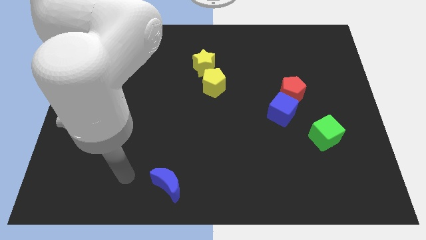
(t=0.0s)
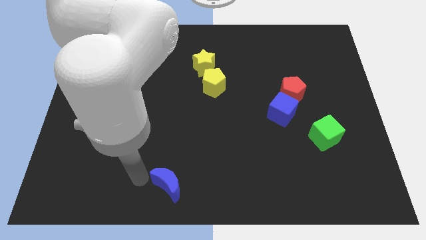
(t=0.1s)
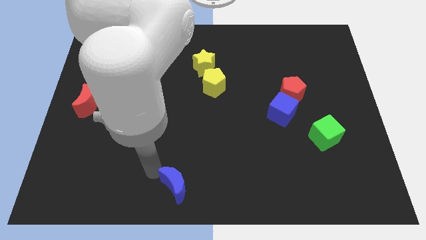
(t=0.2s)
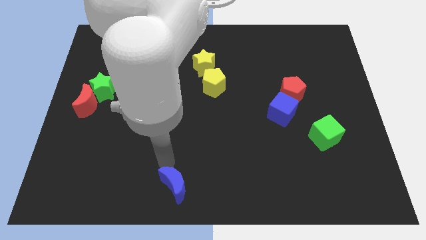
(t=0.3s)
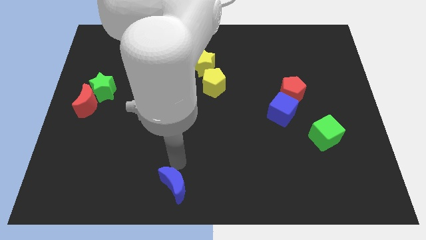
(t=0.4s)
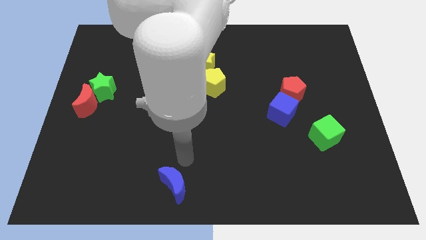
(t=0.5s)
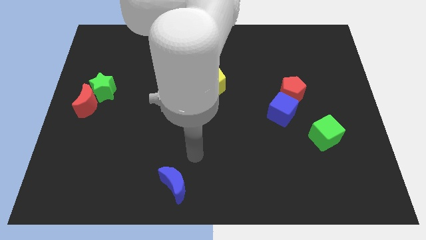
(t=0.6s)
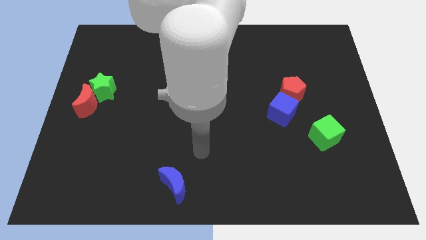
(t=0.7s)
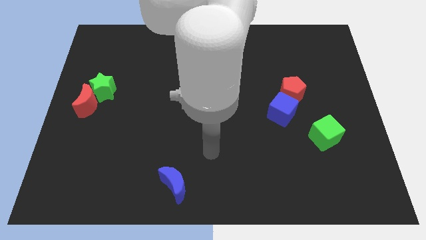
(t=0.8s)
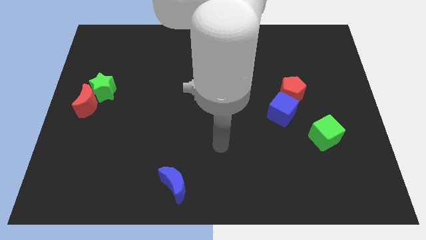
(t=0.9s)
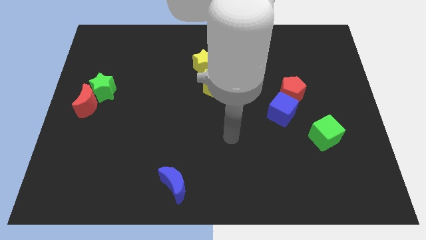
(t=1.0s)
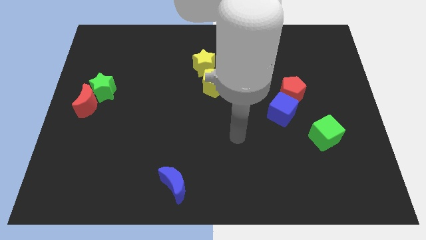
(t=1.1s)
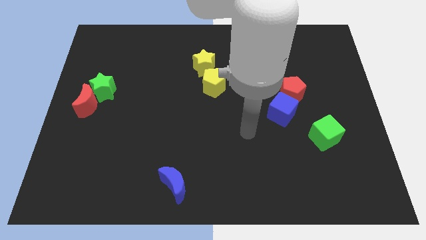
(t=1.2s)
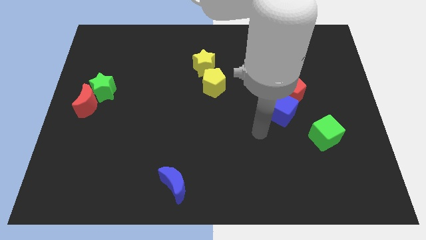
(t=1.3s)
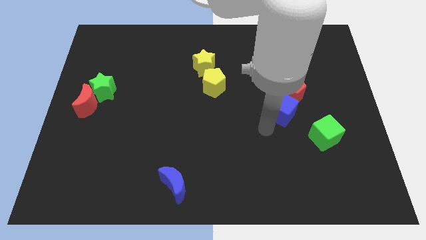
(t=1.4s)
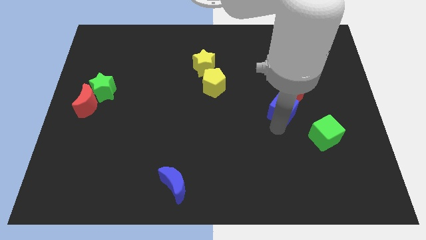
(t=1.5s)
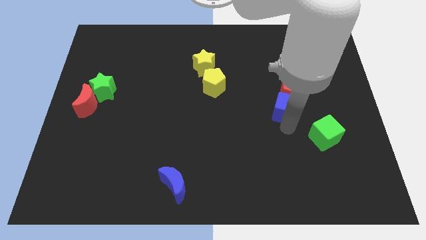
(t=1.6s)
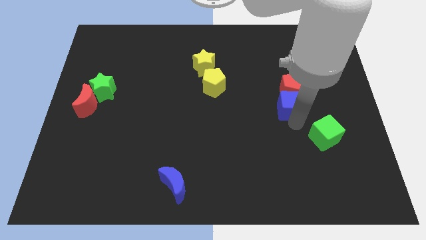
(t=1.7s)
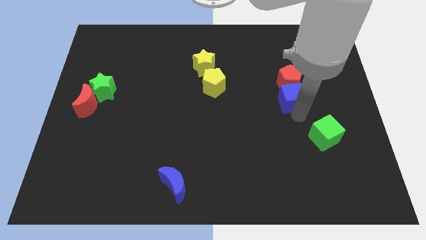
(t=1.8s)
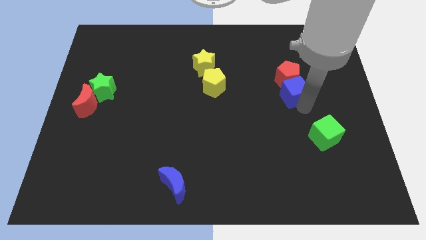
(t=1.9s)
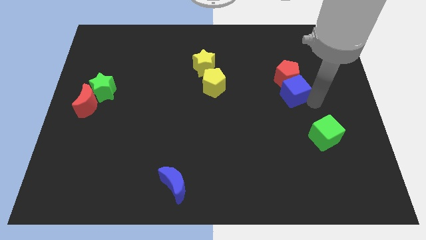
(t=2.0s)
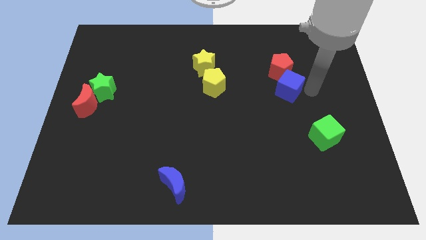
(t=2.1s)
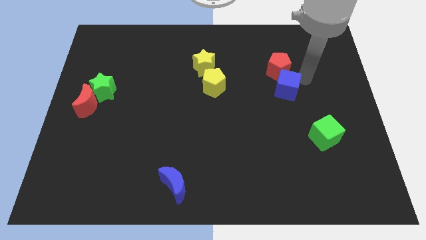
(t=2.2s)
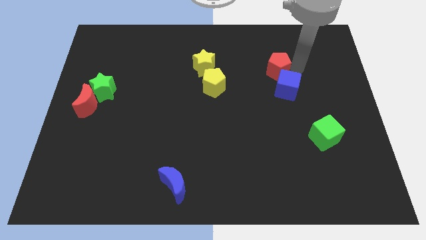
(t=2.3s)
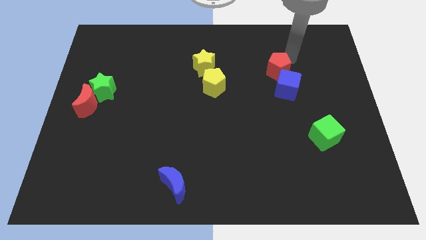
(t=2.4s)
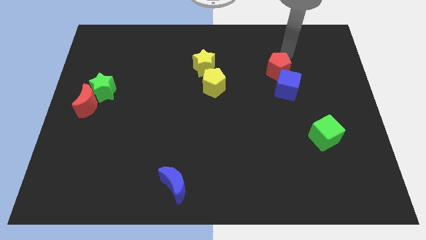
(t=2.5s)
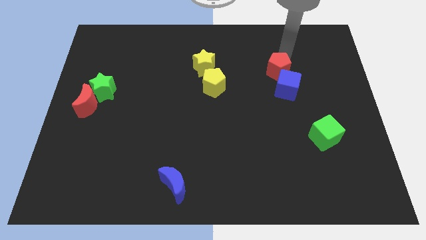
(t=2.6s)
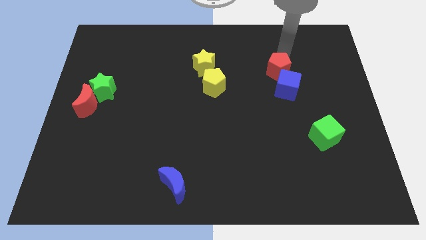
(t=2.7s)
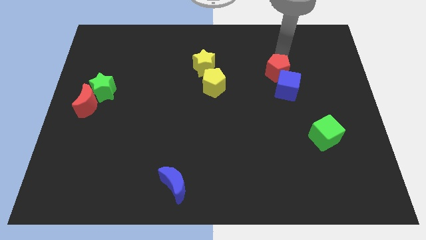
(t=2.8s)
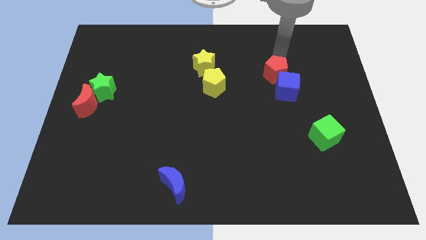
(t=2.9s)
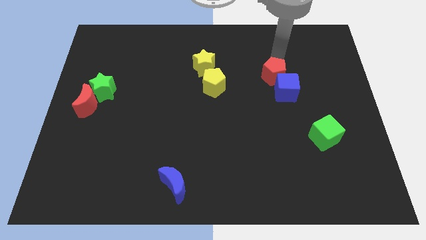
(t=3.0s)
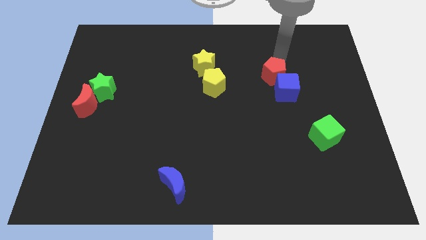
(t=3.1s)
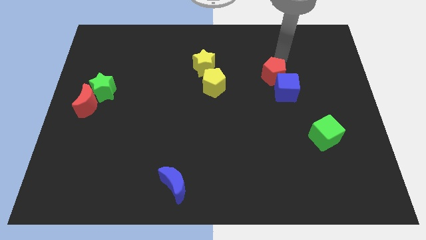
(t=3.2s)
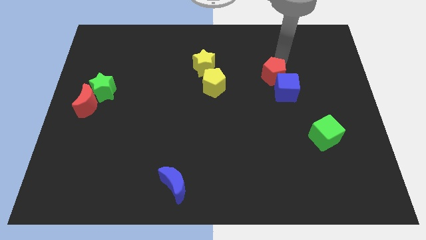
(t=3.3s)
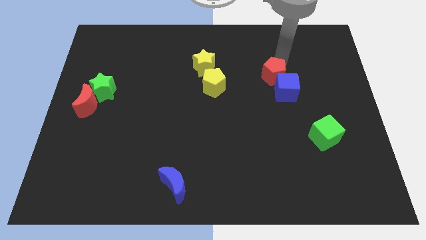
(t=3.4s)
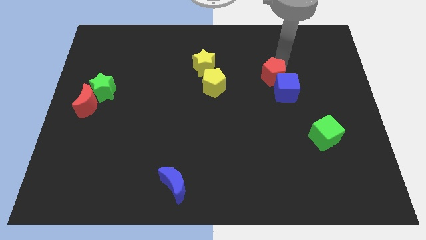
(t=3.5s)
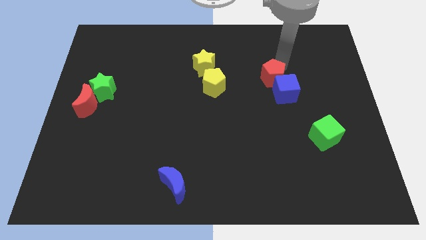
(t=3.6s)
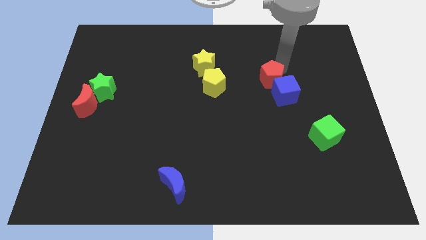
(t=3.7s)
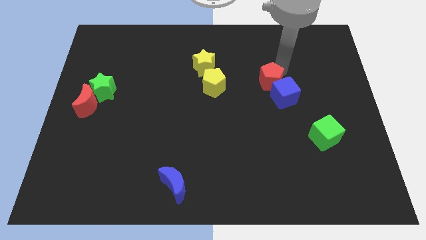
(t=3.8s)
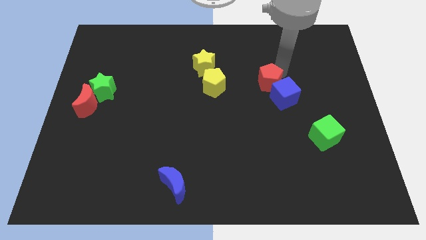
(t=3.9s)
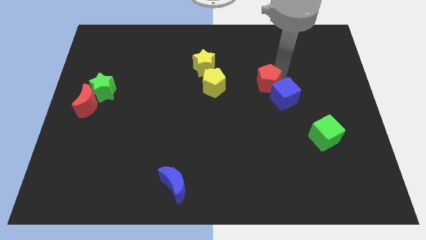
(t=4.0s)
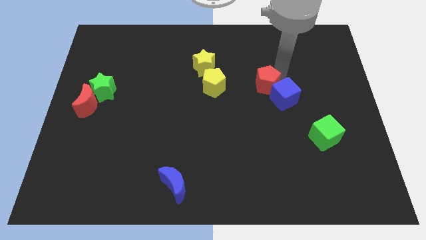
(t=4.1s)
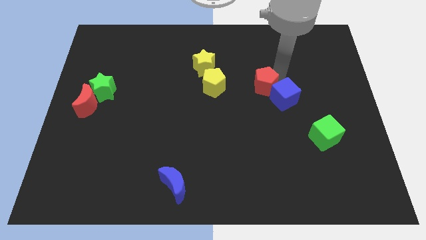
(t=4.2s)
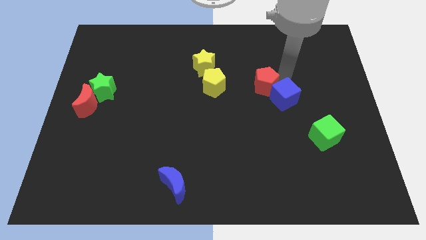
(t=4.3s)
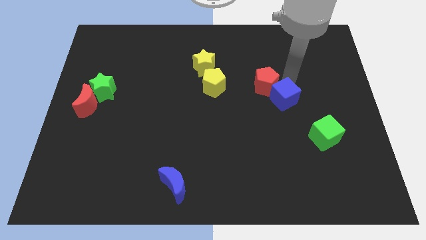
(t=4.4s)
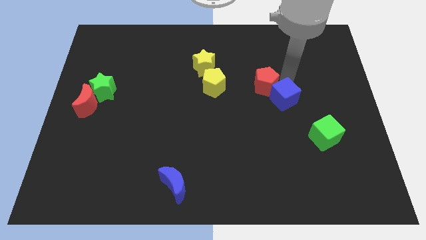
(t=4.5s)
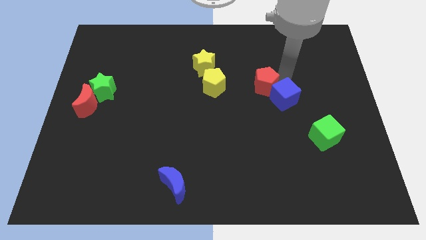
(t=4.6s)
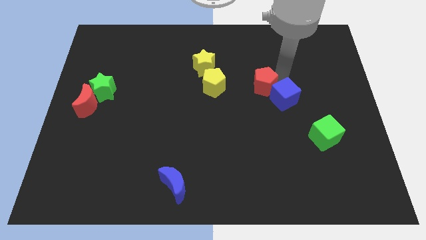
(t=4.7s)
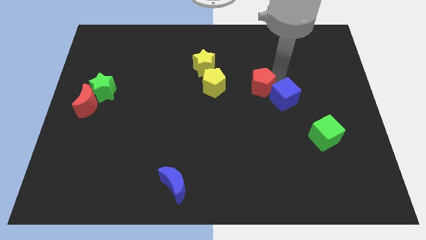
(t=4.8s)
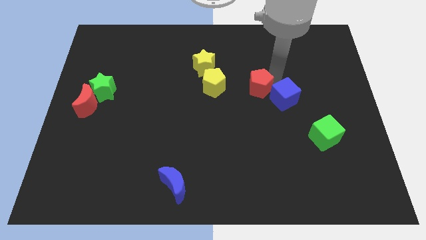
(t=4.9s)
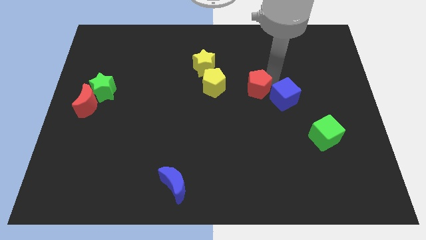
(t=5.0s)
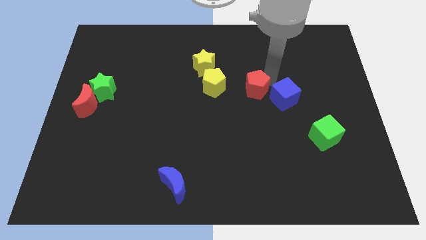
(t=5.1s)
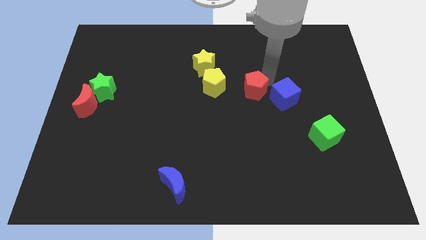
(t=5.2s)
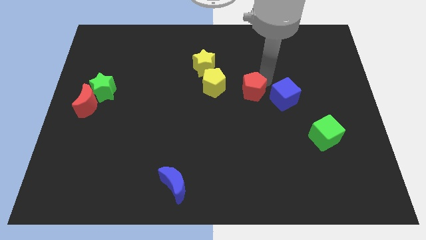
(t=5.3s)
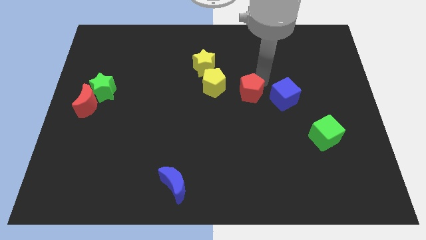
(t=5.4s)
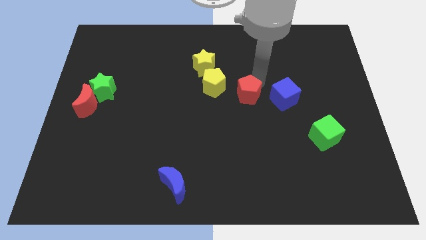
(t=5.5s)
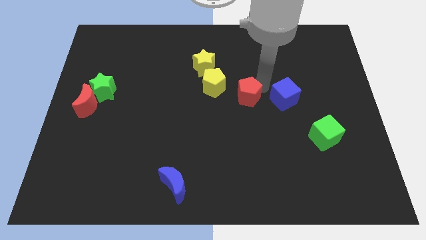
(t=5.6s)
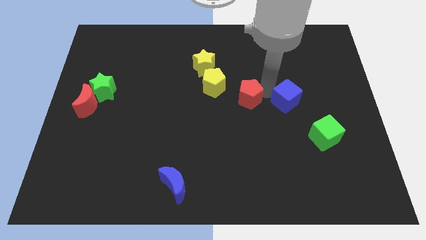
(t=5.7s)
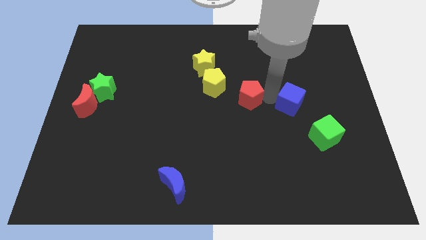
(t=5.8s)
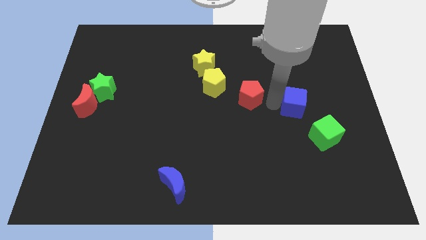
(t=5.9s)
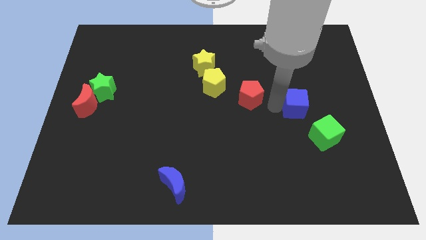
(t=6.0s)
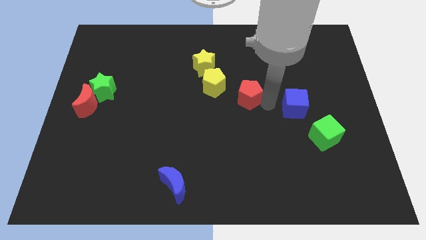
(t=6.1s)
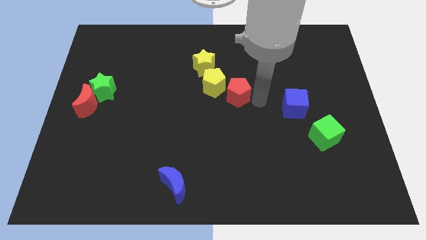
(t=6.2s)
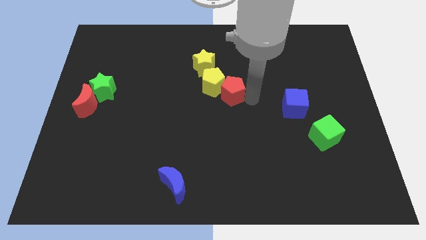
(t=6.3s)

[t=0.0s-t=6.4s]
move the red pentagon towards the yellow pentagon
